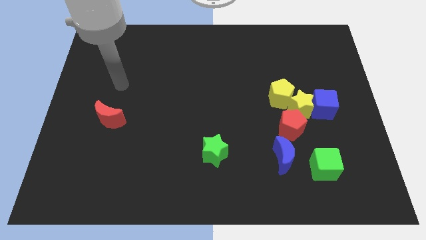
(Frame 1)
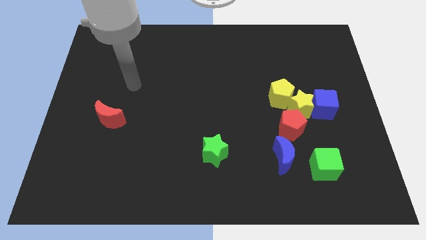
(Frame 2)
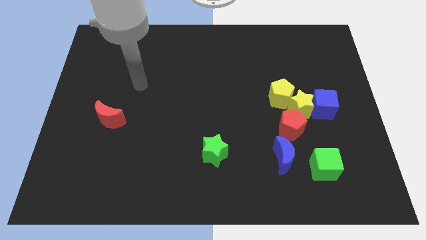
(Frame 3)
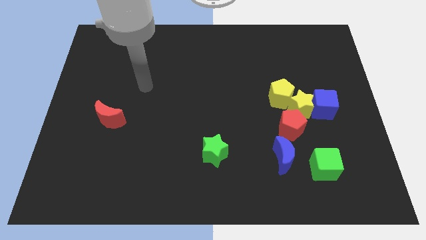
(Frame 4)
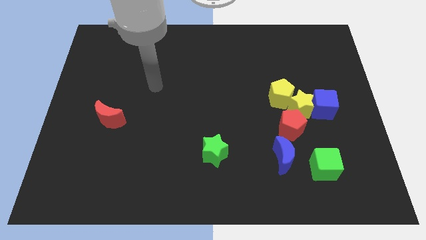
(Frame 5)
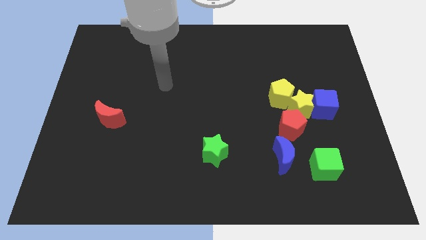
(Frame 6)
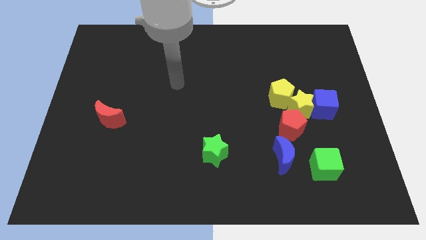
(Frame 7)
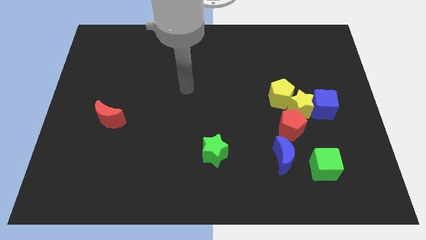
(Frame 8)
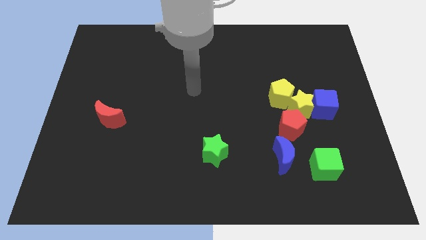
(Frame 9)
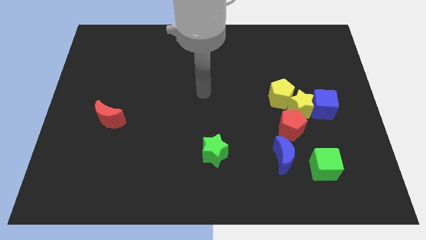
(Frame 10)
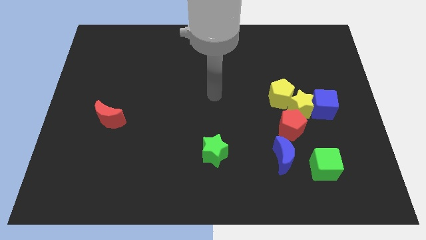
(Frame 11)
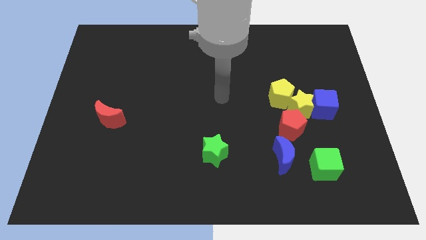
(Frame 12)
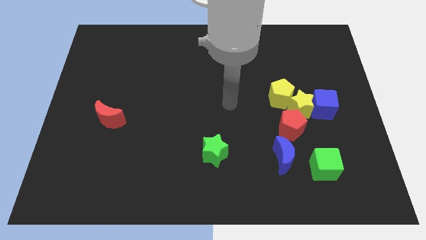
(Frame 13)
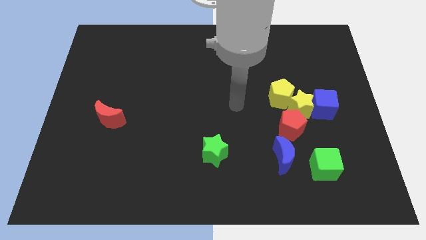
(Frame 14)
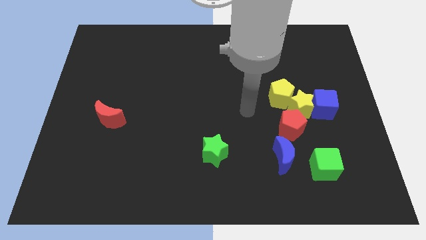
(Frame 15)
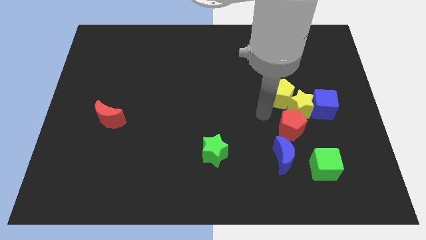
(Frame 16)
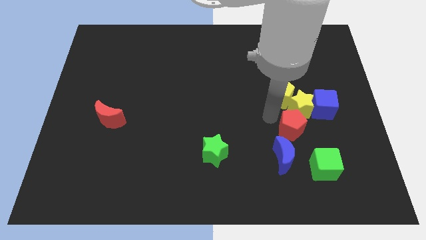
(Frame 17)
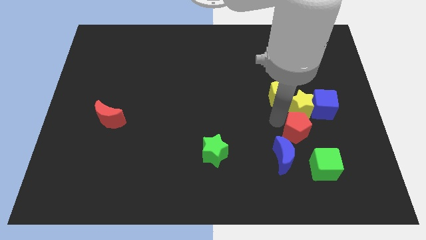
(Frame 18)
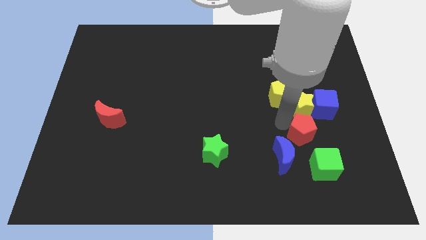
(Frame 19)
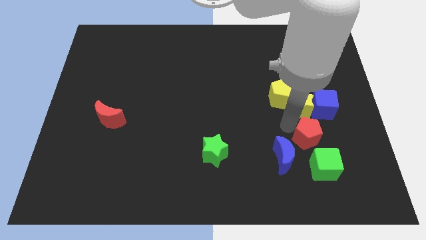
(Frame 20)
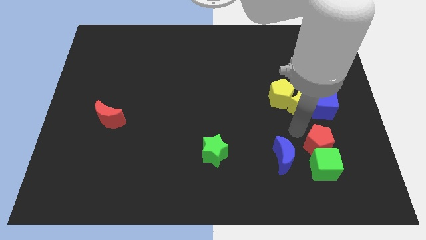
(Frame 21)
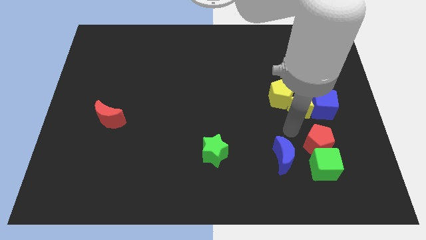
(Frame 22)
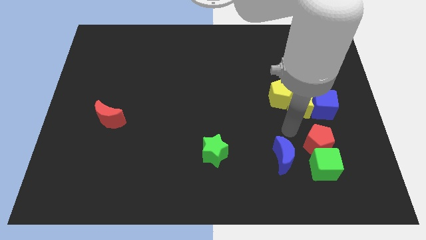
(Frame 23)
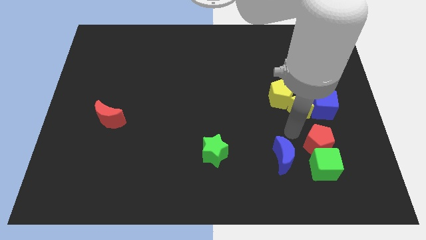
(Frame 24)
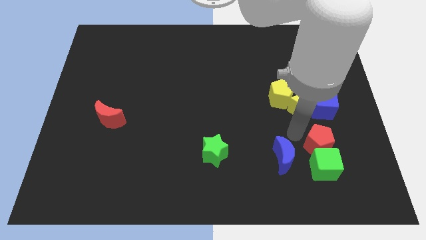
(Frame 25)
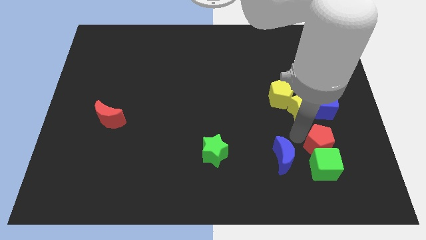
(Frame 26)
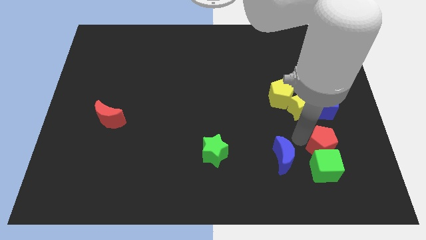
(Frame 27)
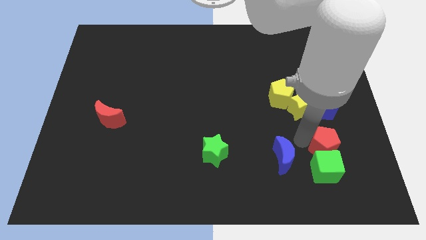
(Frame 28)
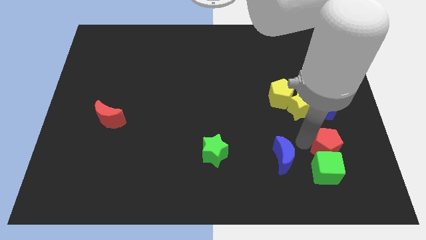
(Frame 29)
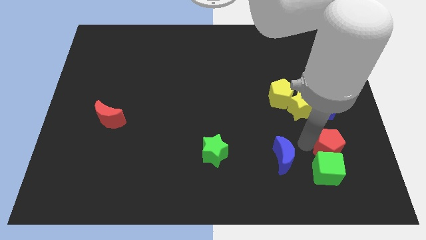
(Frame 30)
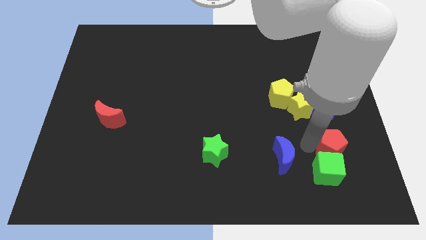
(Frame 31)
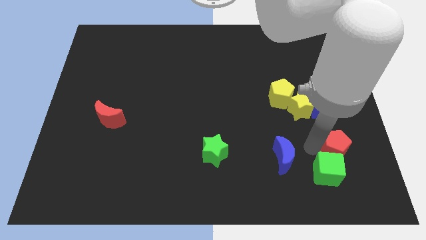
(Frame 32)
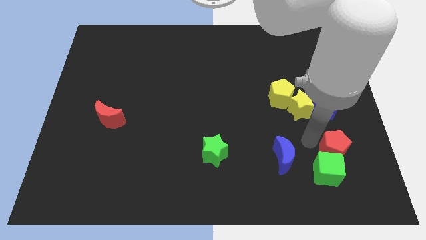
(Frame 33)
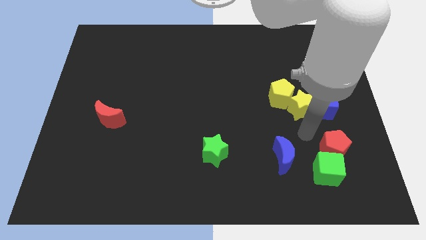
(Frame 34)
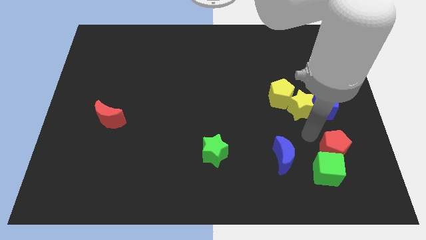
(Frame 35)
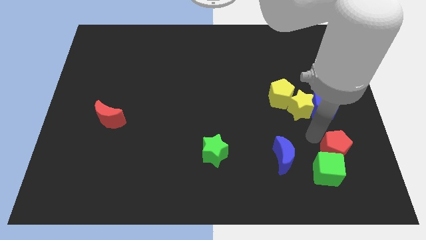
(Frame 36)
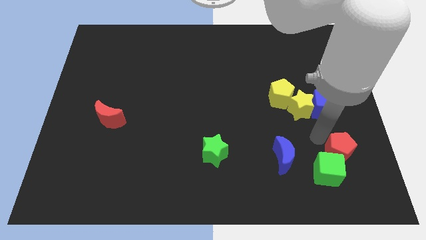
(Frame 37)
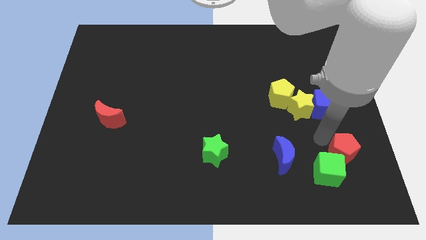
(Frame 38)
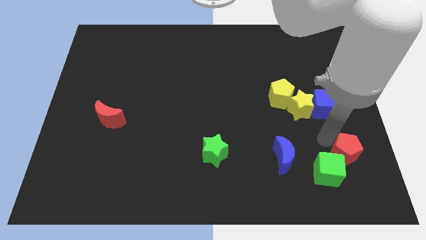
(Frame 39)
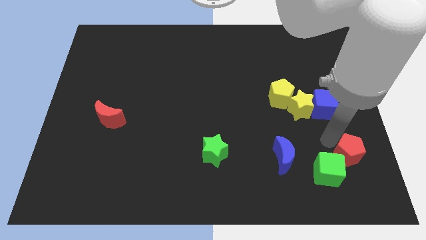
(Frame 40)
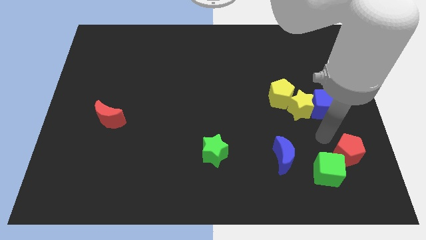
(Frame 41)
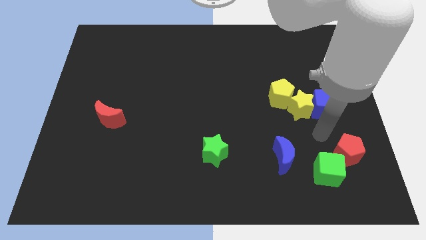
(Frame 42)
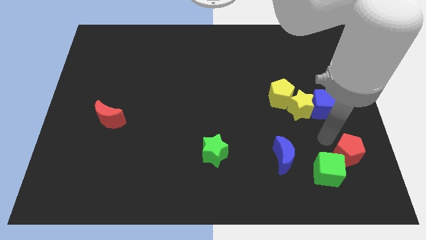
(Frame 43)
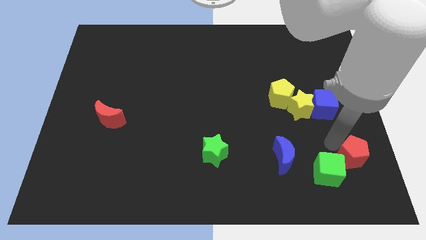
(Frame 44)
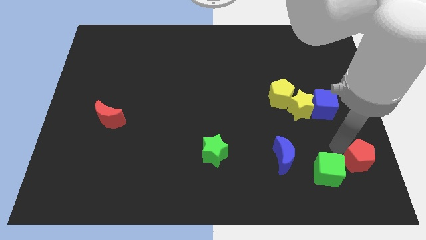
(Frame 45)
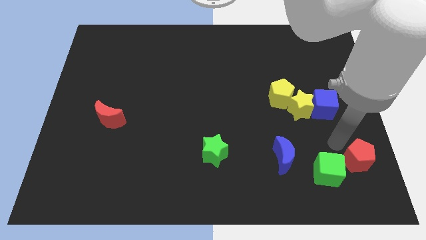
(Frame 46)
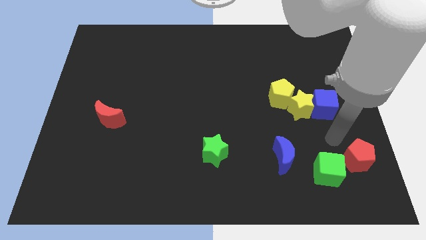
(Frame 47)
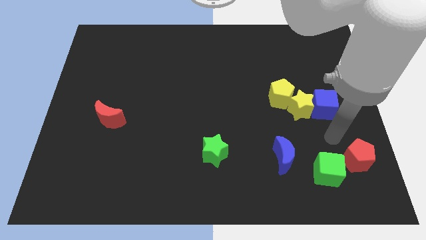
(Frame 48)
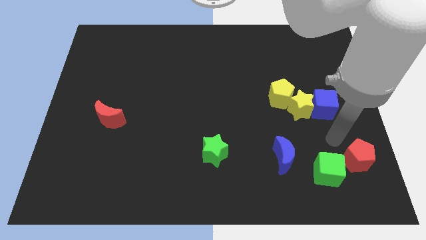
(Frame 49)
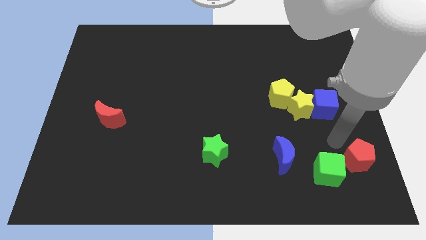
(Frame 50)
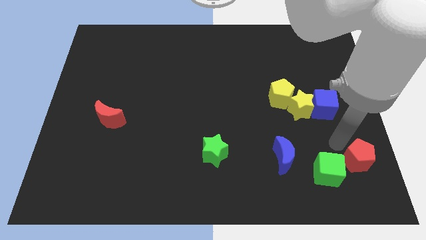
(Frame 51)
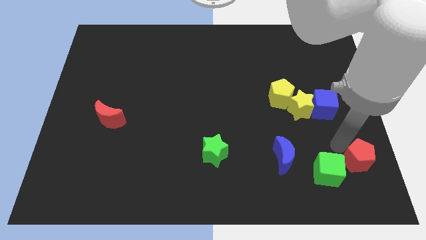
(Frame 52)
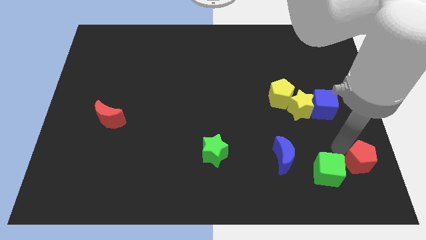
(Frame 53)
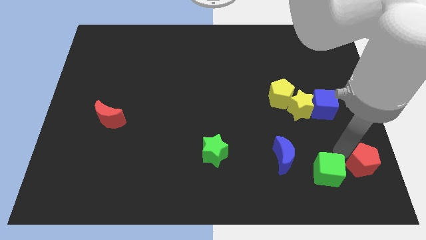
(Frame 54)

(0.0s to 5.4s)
move the red pentagon to the bottom right corner

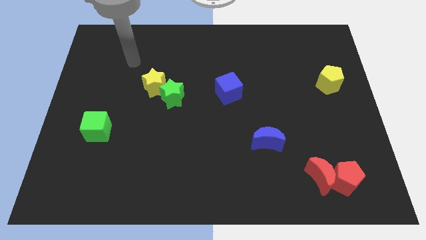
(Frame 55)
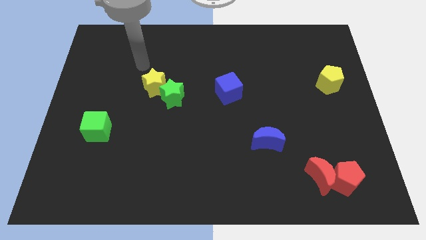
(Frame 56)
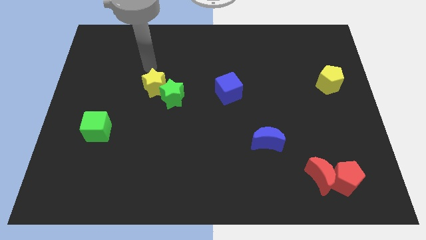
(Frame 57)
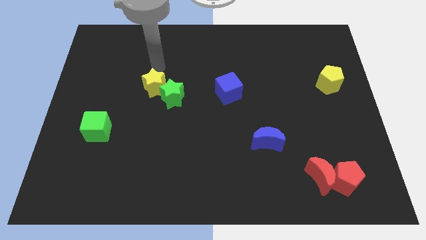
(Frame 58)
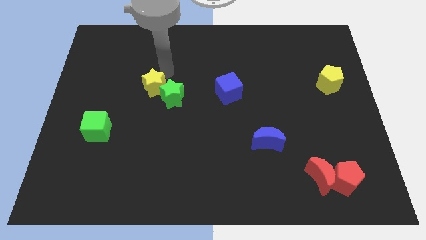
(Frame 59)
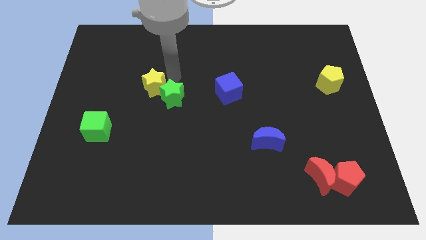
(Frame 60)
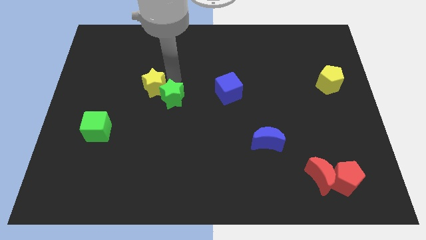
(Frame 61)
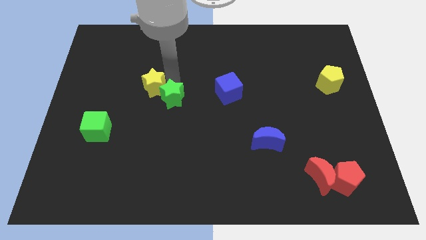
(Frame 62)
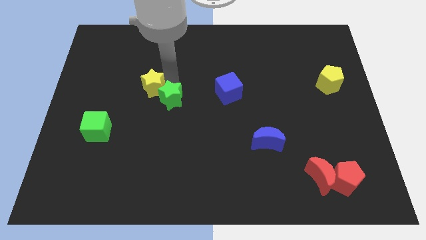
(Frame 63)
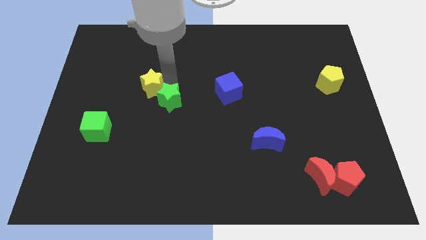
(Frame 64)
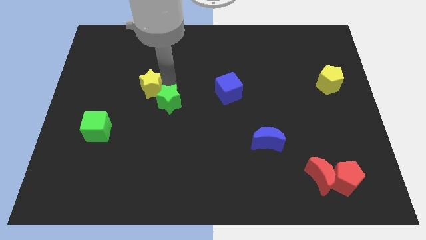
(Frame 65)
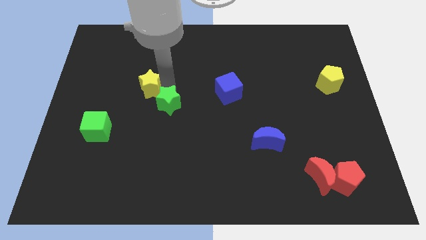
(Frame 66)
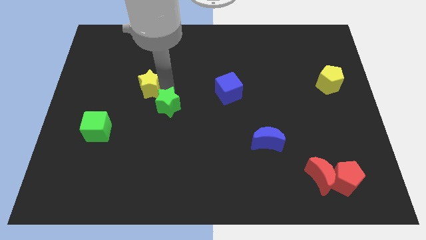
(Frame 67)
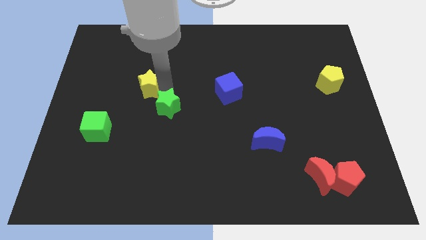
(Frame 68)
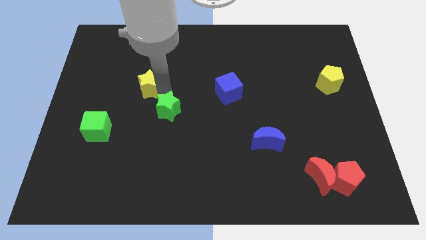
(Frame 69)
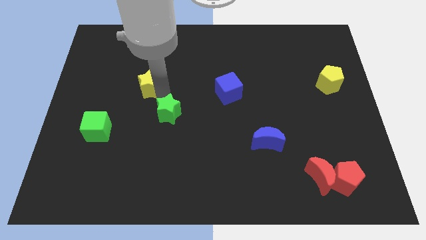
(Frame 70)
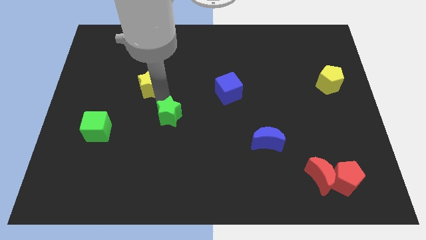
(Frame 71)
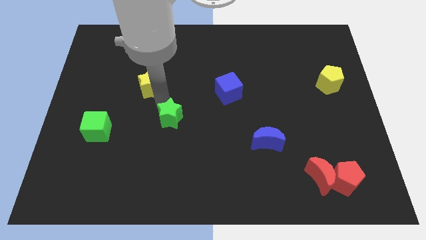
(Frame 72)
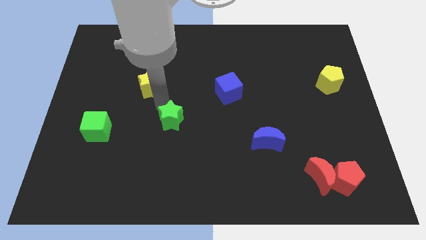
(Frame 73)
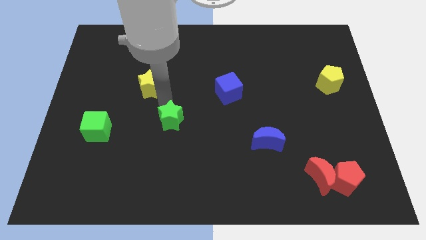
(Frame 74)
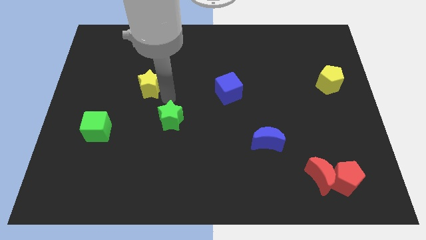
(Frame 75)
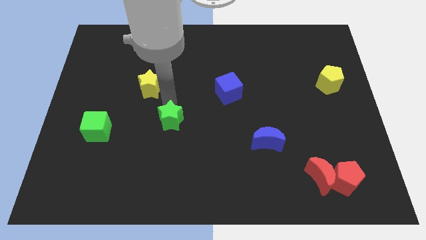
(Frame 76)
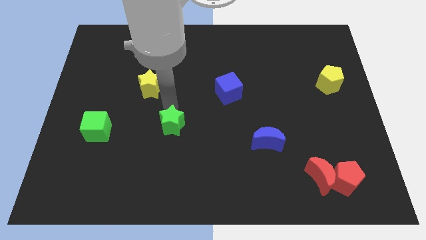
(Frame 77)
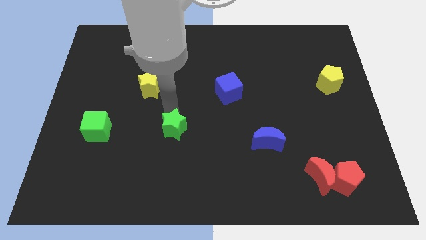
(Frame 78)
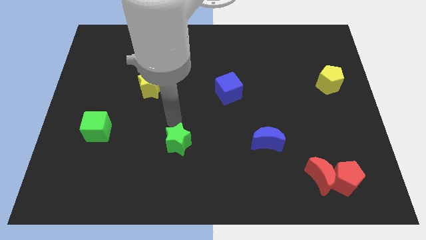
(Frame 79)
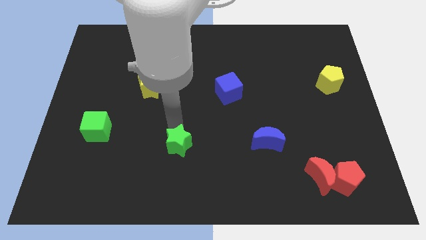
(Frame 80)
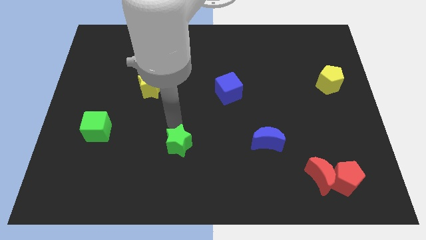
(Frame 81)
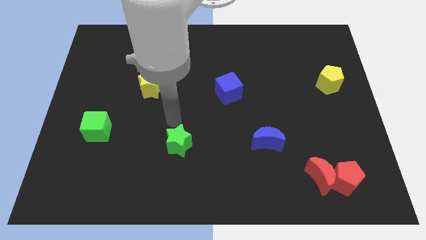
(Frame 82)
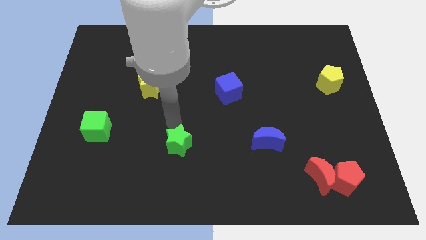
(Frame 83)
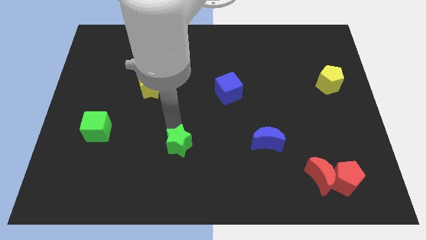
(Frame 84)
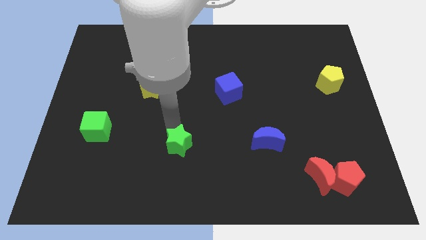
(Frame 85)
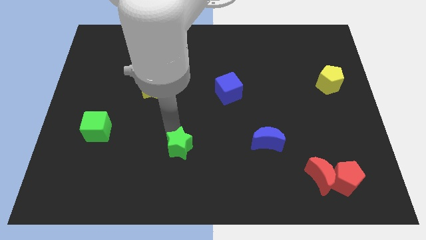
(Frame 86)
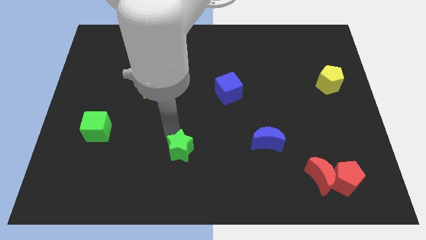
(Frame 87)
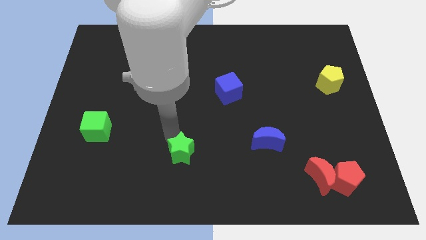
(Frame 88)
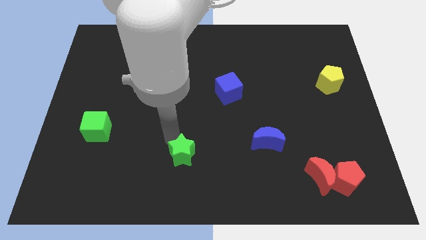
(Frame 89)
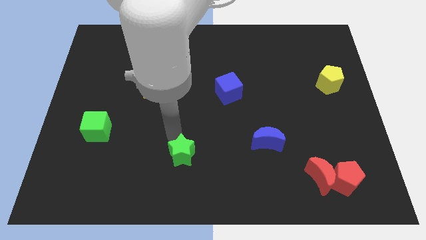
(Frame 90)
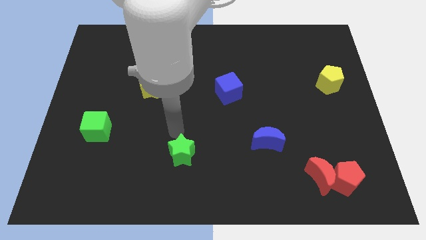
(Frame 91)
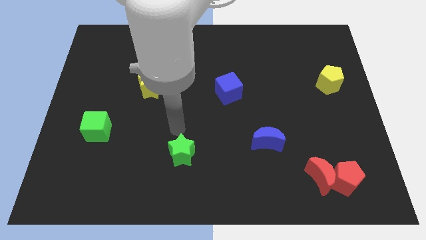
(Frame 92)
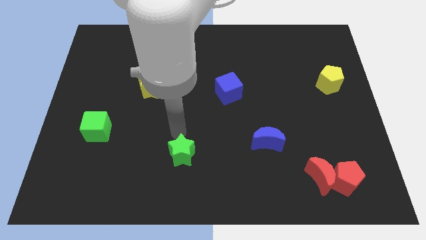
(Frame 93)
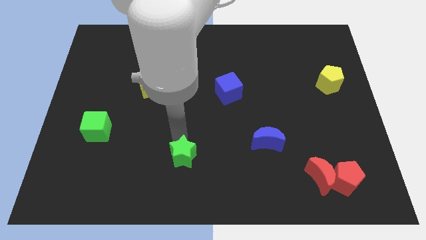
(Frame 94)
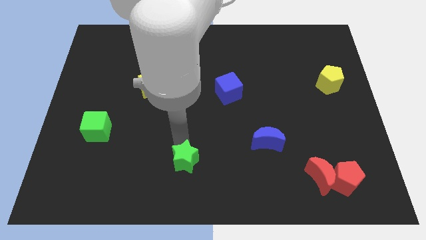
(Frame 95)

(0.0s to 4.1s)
slide the green star to the bottom
